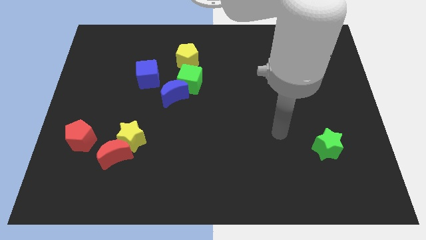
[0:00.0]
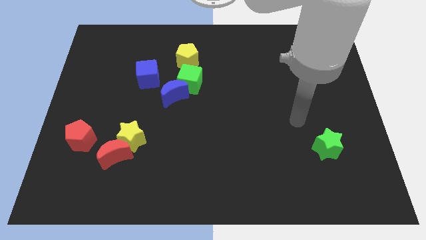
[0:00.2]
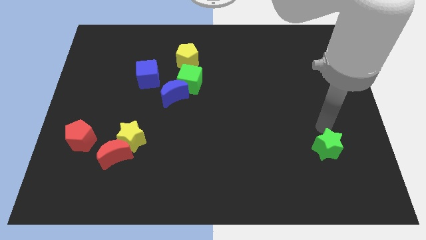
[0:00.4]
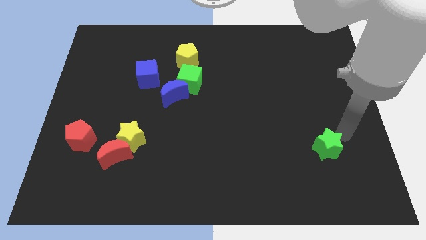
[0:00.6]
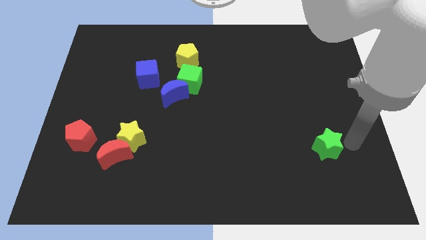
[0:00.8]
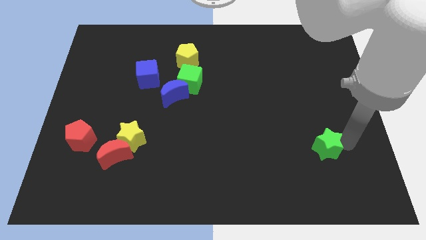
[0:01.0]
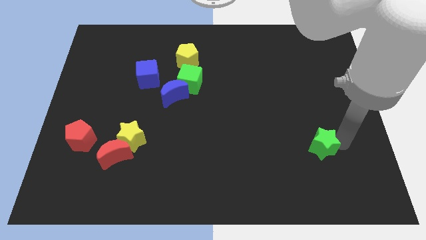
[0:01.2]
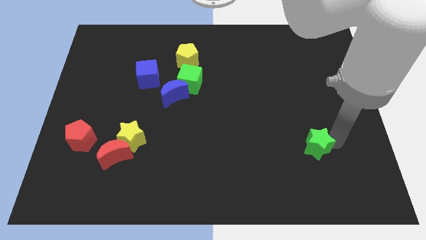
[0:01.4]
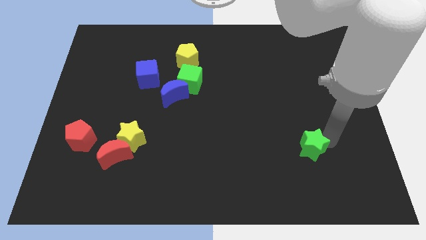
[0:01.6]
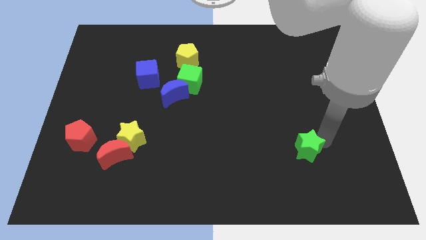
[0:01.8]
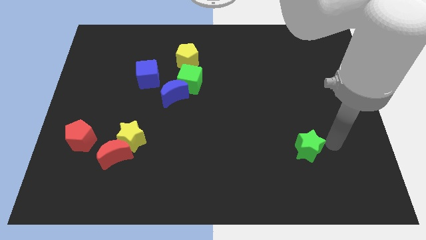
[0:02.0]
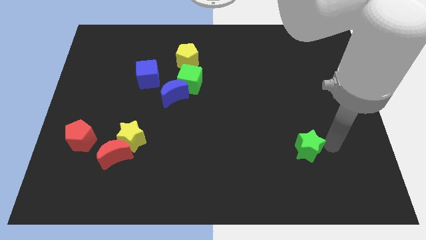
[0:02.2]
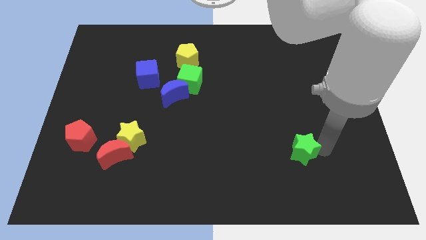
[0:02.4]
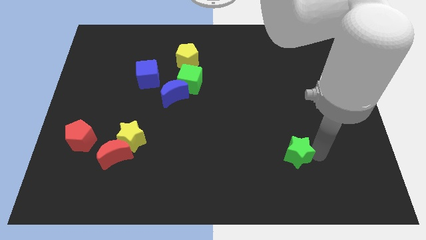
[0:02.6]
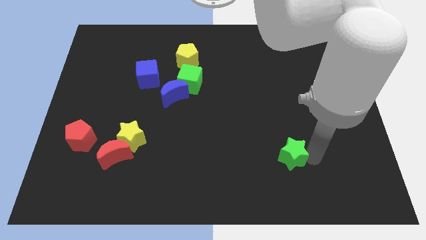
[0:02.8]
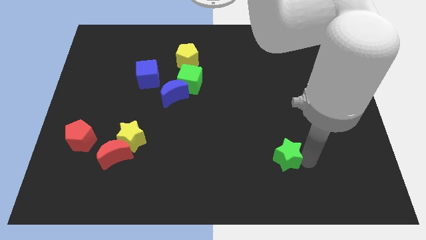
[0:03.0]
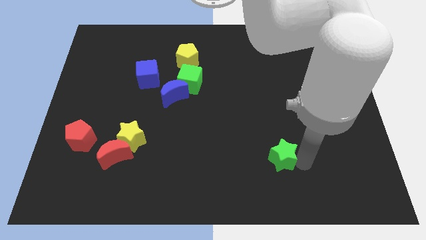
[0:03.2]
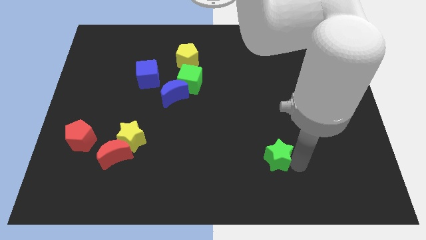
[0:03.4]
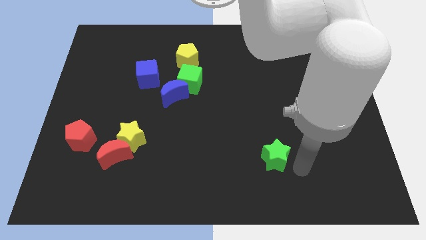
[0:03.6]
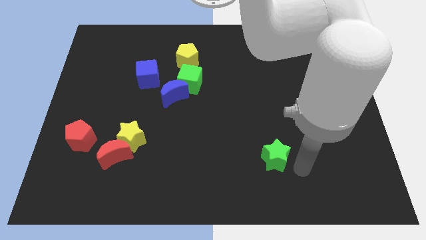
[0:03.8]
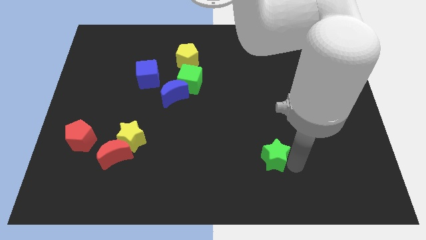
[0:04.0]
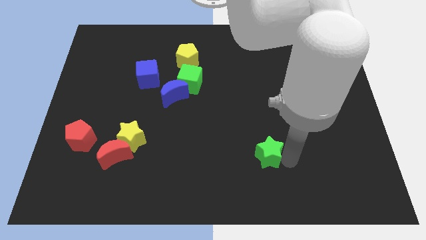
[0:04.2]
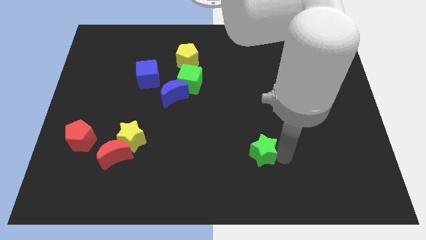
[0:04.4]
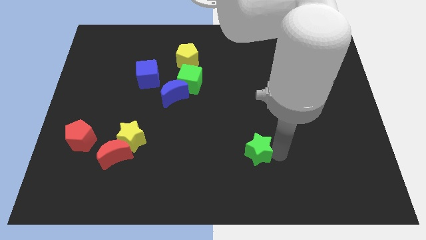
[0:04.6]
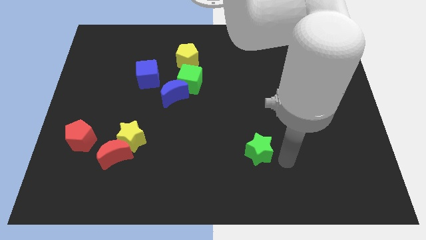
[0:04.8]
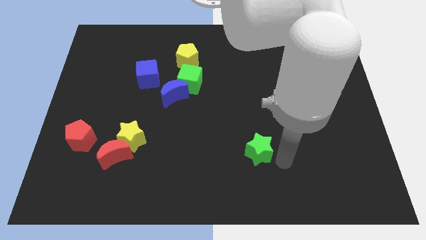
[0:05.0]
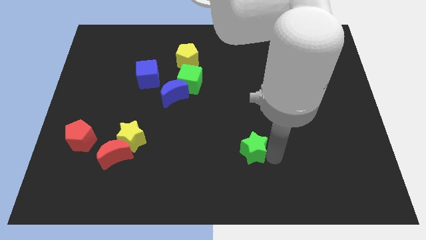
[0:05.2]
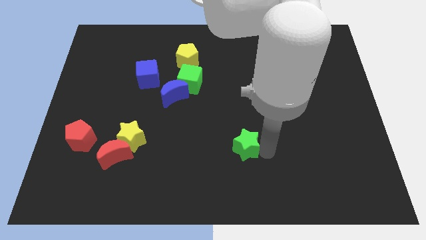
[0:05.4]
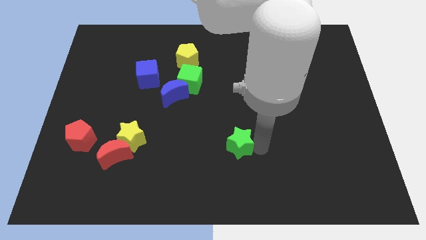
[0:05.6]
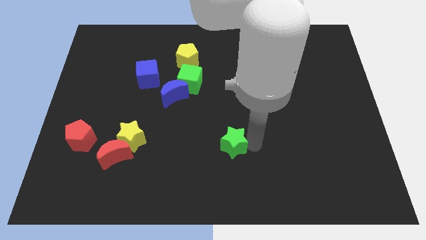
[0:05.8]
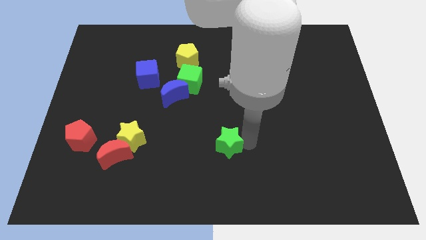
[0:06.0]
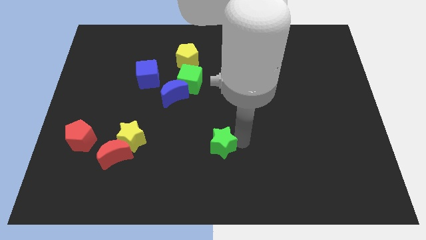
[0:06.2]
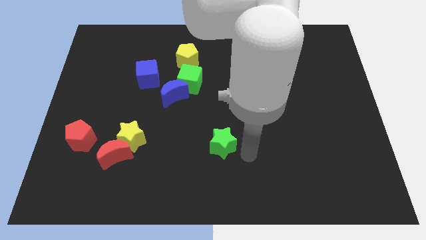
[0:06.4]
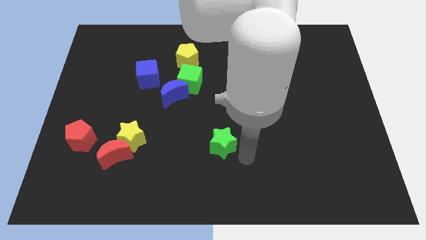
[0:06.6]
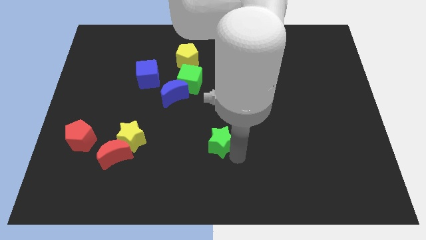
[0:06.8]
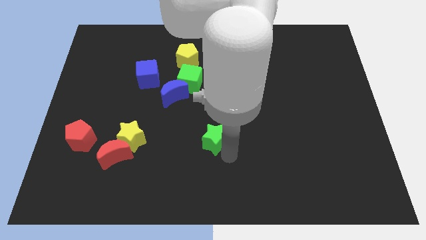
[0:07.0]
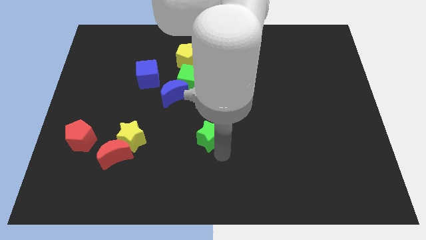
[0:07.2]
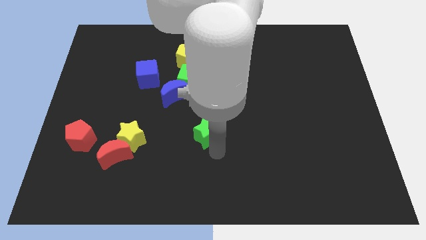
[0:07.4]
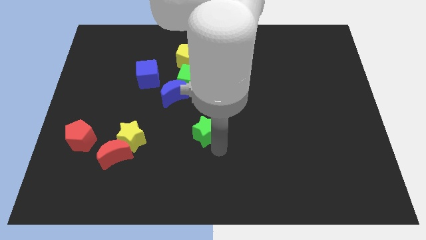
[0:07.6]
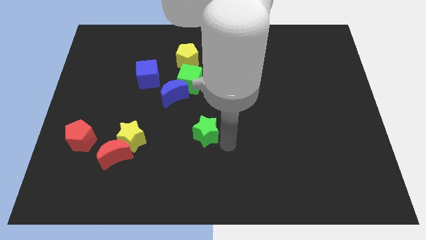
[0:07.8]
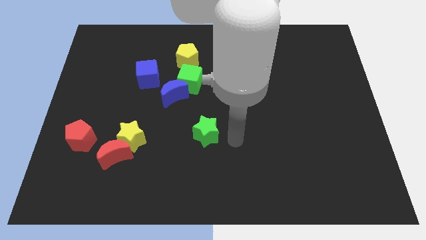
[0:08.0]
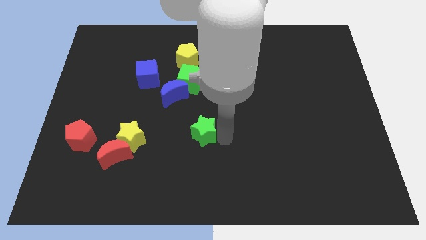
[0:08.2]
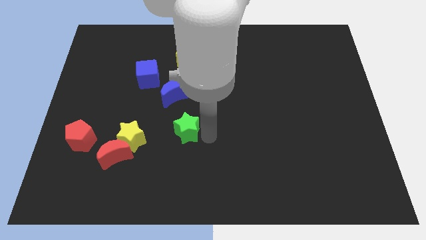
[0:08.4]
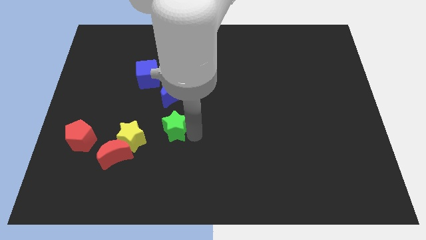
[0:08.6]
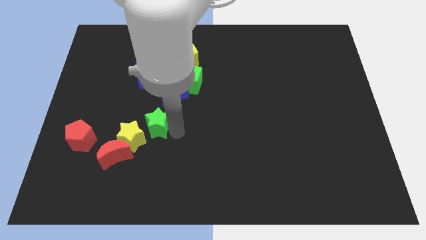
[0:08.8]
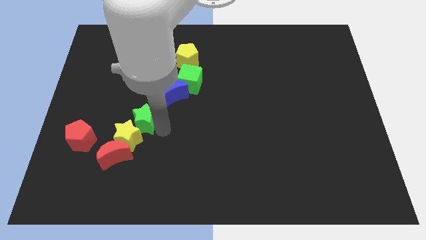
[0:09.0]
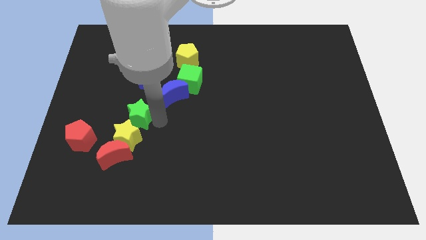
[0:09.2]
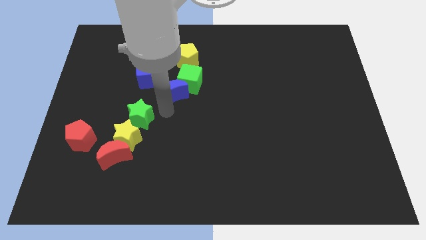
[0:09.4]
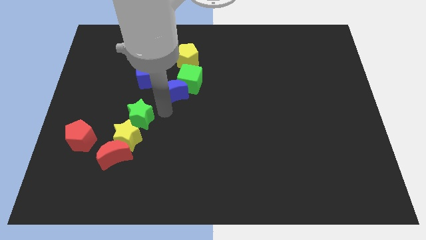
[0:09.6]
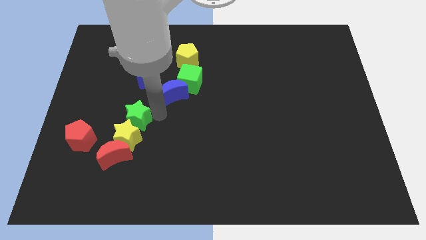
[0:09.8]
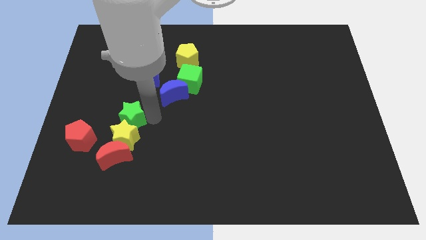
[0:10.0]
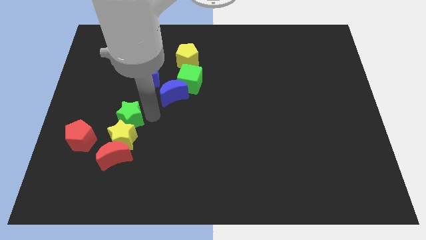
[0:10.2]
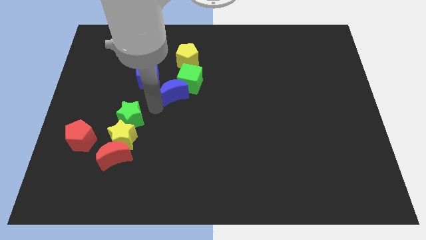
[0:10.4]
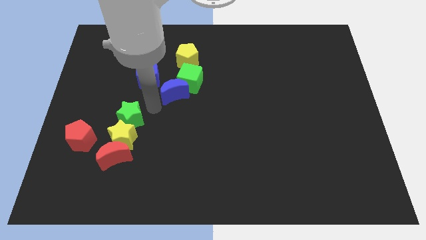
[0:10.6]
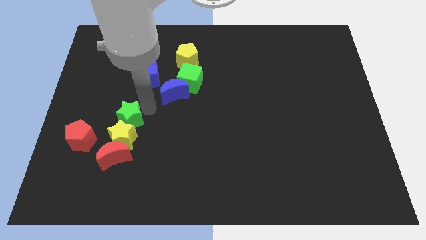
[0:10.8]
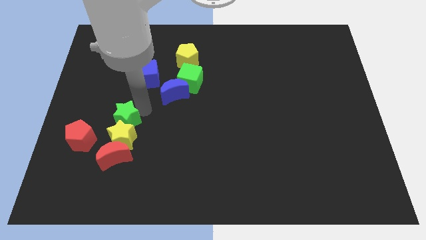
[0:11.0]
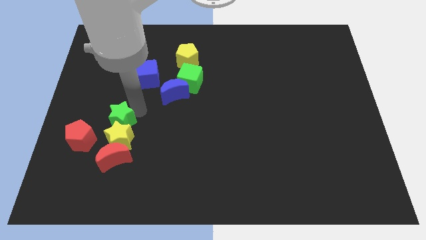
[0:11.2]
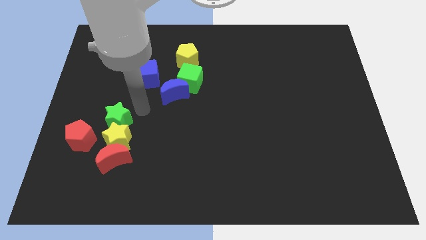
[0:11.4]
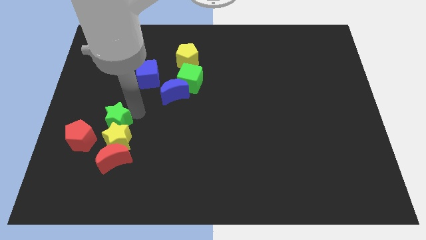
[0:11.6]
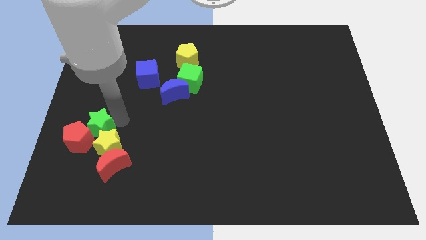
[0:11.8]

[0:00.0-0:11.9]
move the green star close to the red pentagon
